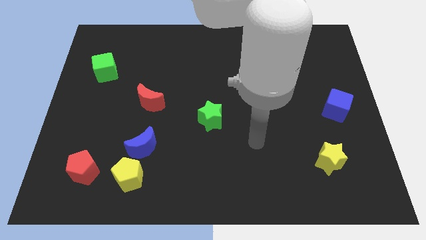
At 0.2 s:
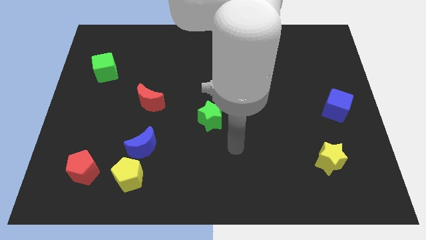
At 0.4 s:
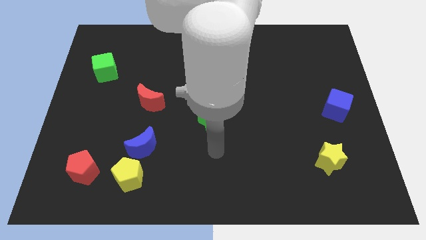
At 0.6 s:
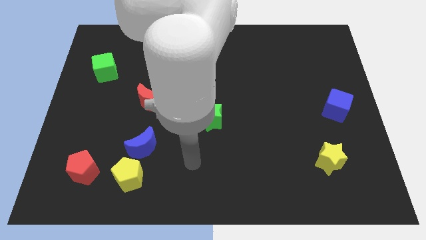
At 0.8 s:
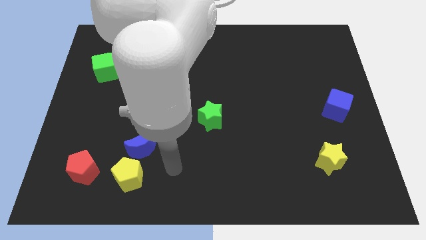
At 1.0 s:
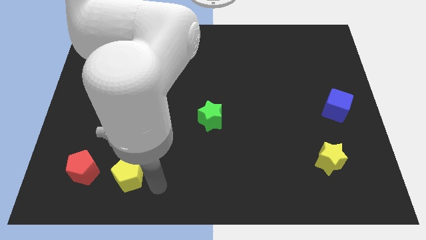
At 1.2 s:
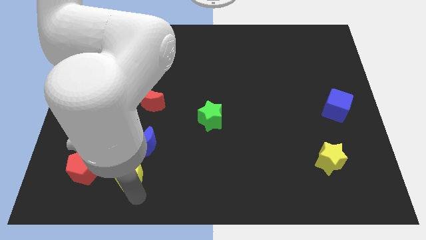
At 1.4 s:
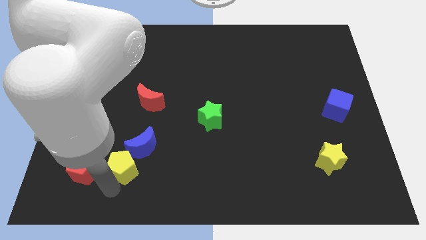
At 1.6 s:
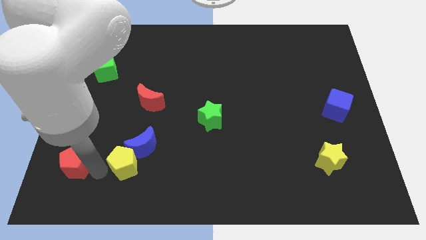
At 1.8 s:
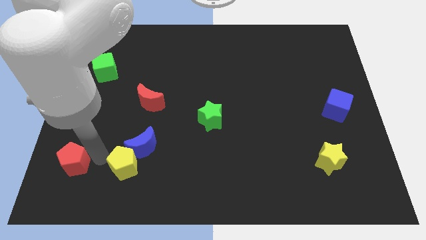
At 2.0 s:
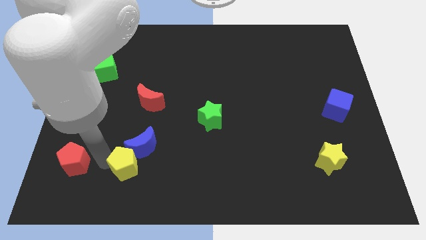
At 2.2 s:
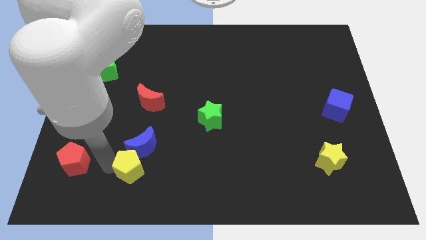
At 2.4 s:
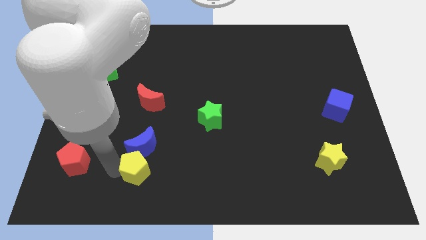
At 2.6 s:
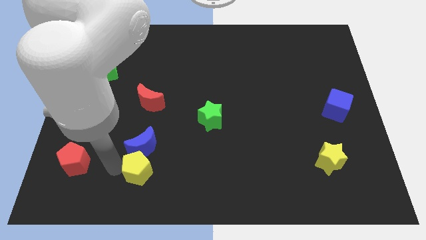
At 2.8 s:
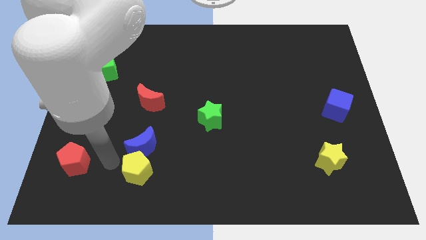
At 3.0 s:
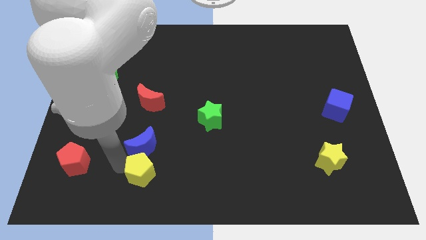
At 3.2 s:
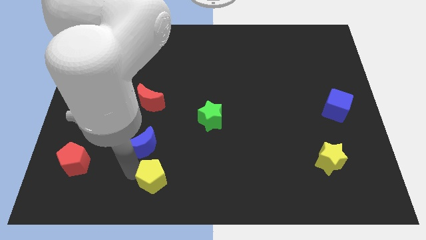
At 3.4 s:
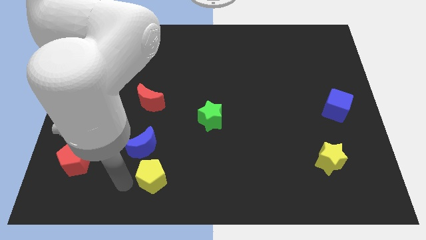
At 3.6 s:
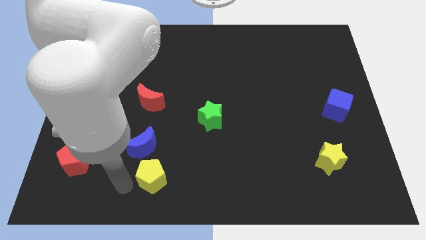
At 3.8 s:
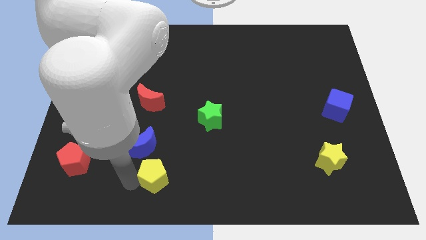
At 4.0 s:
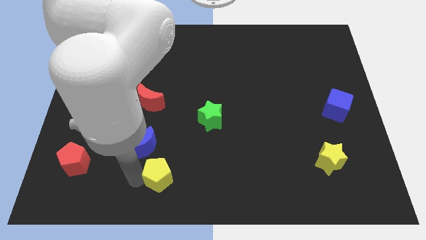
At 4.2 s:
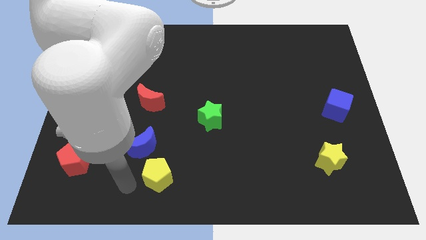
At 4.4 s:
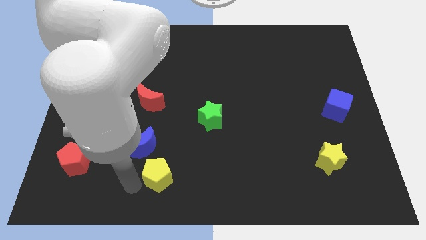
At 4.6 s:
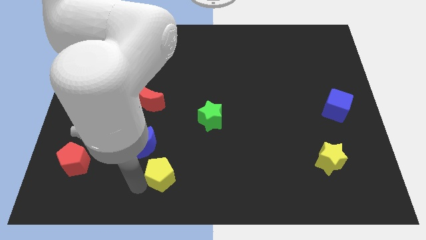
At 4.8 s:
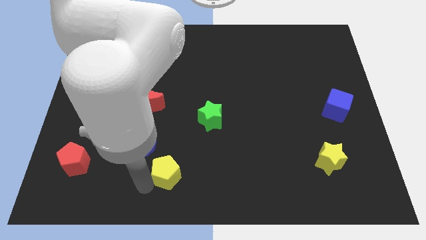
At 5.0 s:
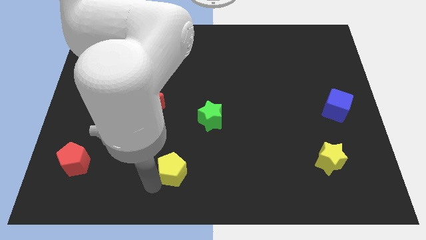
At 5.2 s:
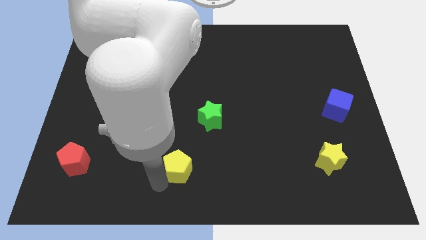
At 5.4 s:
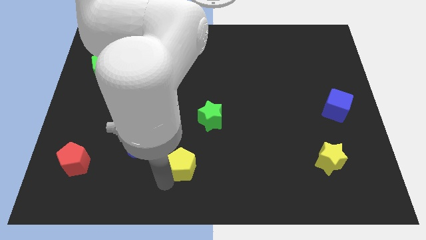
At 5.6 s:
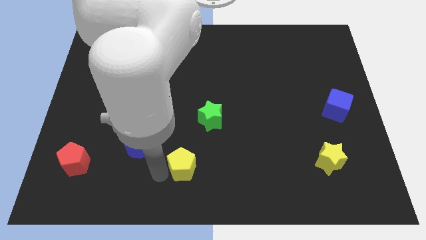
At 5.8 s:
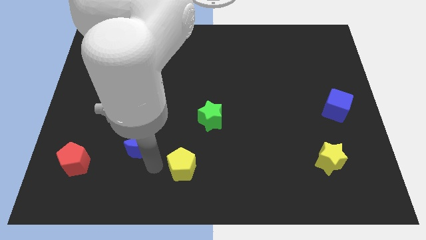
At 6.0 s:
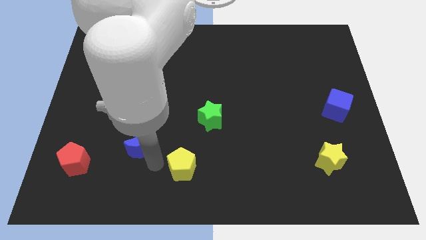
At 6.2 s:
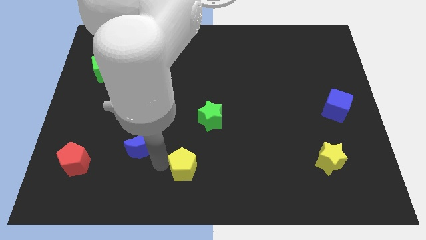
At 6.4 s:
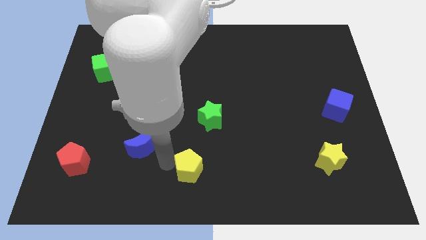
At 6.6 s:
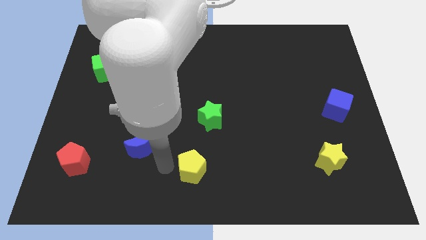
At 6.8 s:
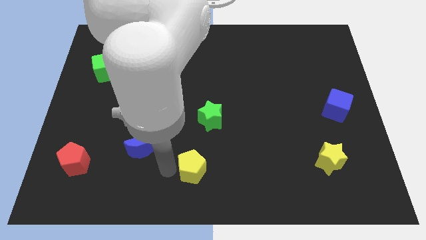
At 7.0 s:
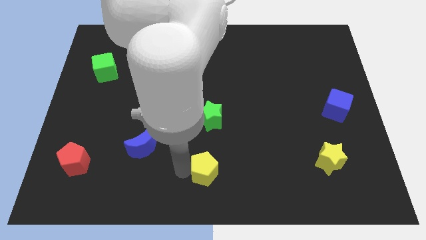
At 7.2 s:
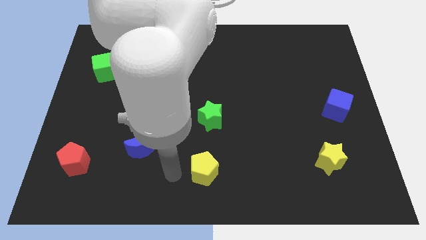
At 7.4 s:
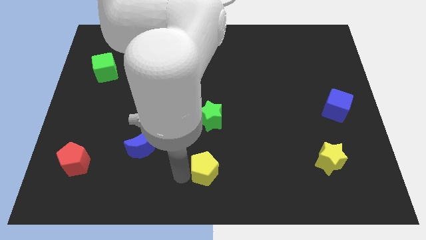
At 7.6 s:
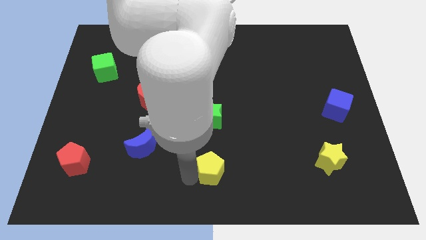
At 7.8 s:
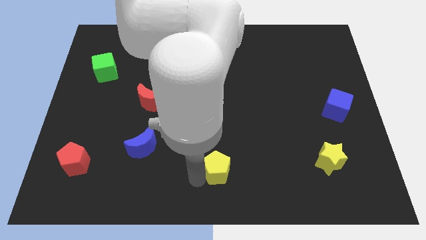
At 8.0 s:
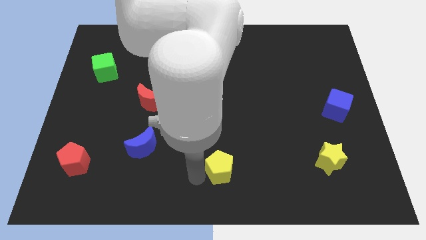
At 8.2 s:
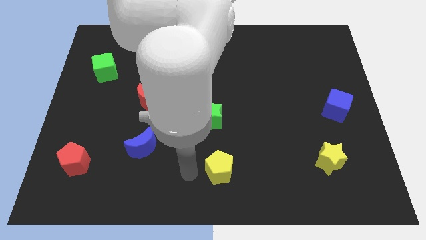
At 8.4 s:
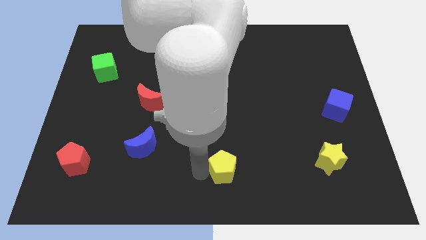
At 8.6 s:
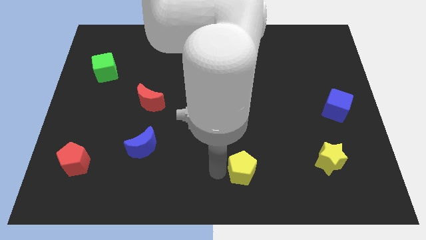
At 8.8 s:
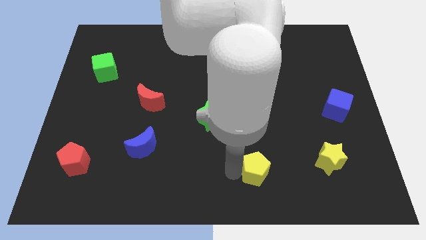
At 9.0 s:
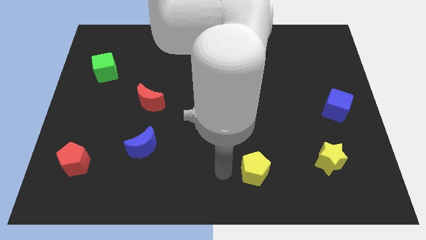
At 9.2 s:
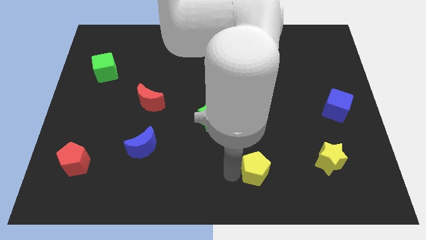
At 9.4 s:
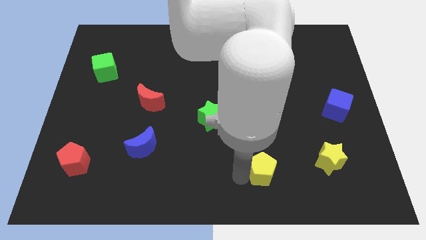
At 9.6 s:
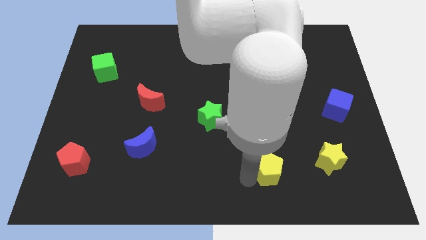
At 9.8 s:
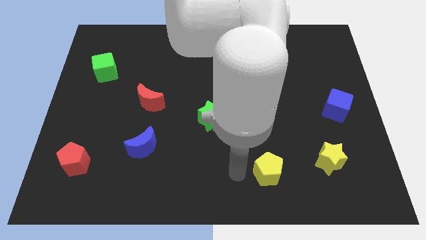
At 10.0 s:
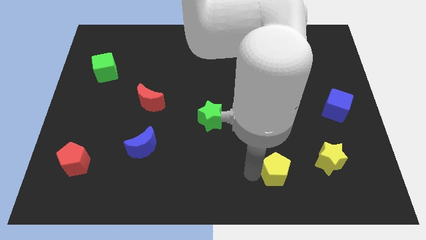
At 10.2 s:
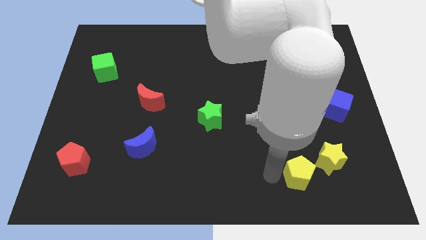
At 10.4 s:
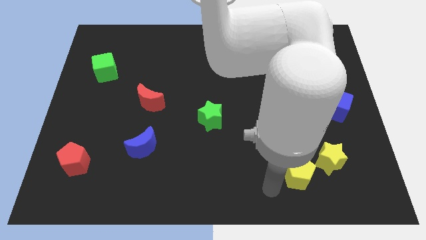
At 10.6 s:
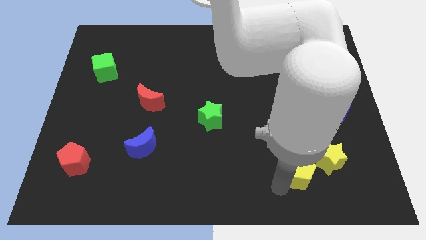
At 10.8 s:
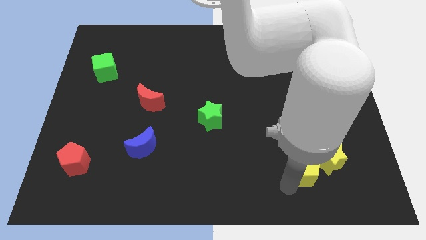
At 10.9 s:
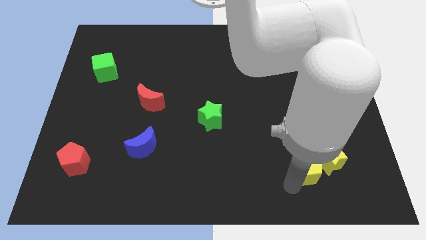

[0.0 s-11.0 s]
slide the yellow pentagon next to the yellow star

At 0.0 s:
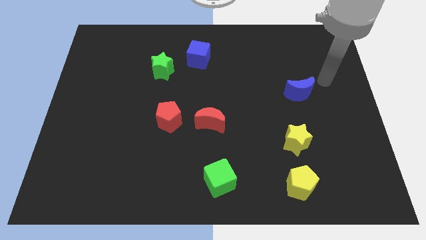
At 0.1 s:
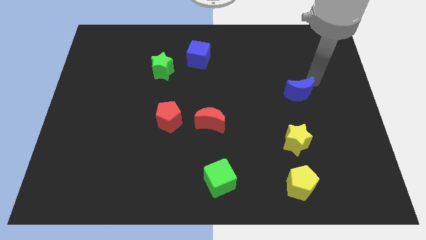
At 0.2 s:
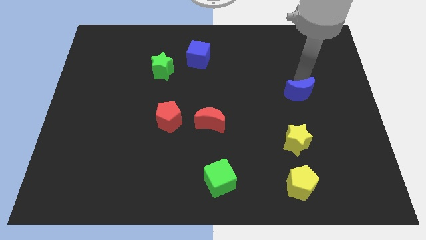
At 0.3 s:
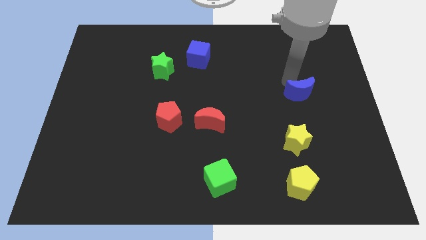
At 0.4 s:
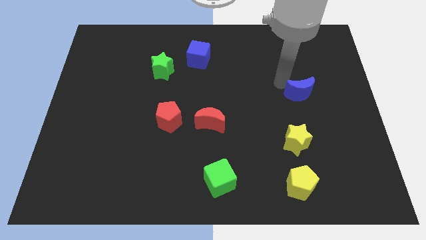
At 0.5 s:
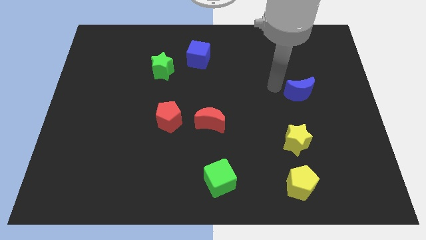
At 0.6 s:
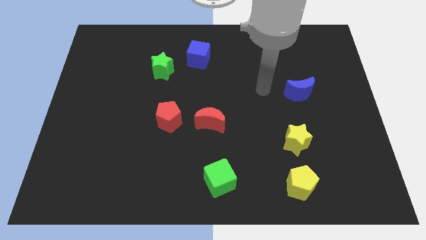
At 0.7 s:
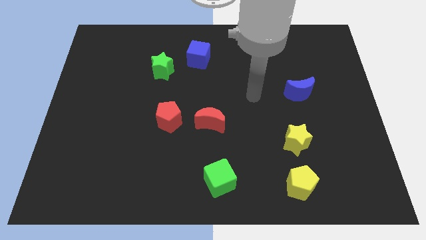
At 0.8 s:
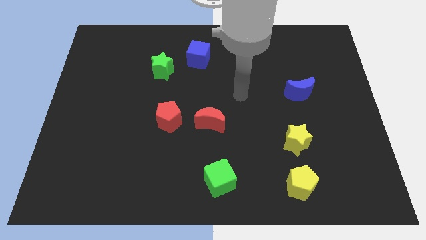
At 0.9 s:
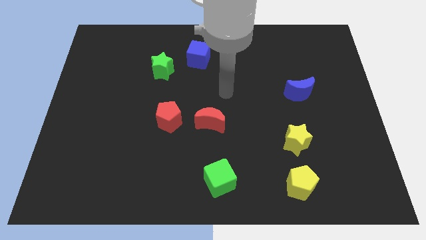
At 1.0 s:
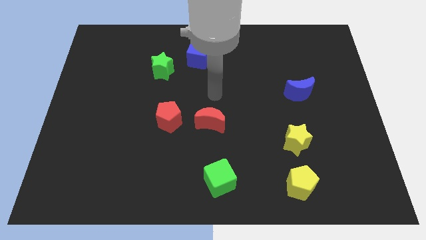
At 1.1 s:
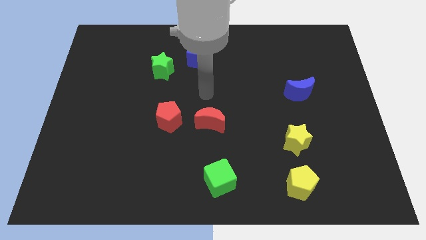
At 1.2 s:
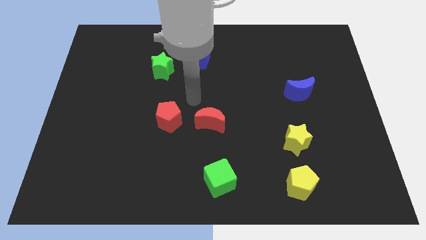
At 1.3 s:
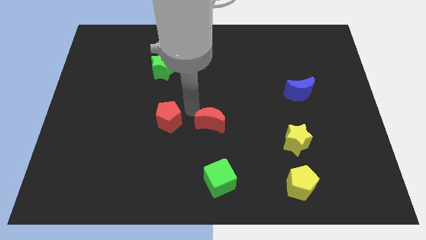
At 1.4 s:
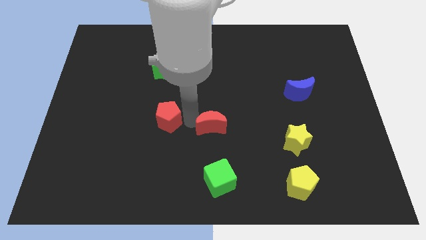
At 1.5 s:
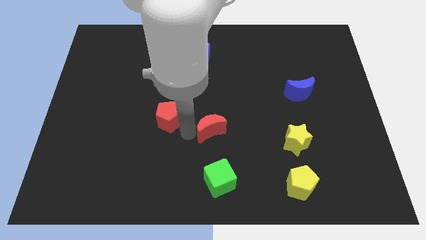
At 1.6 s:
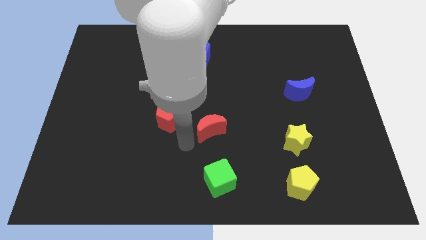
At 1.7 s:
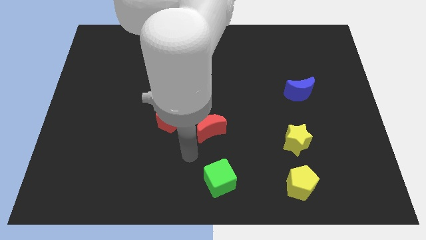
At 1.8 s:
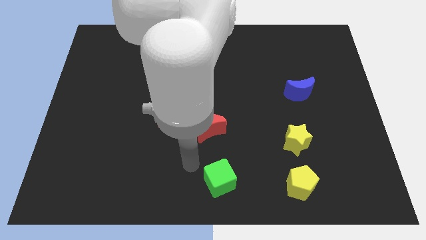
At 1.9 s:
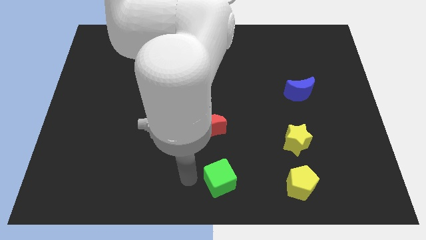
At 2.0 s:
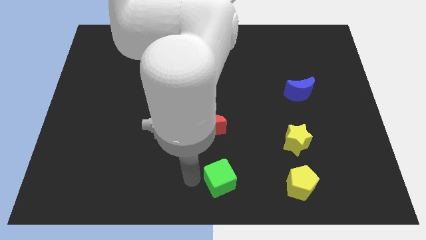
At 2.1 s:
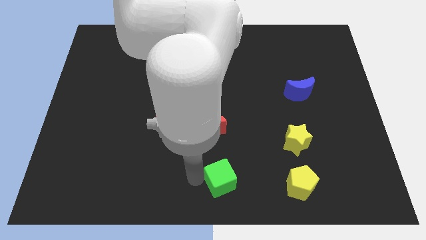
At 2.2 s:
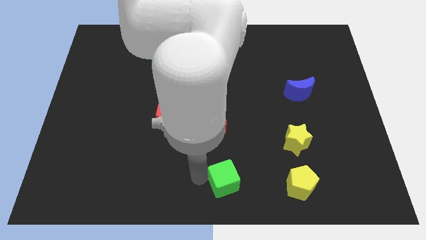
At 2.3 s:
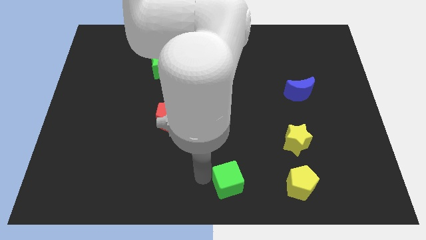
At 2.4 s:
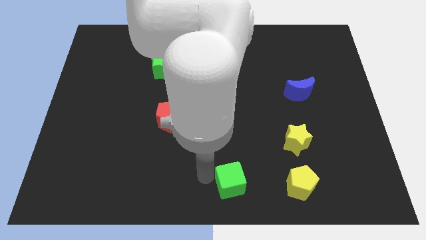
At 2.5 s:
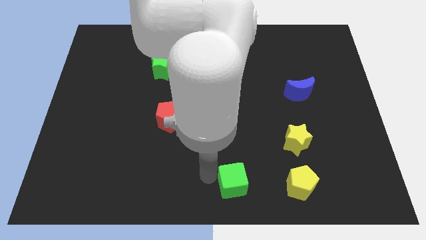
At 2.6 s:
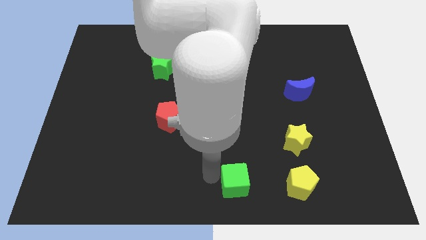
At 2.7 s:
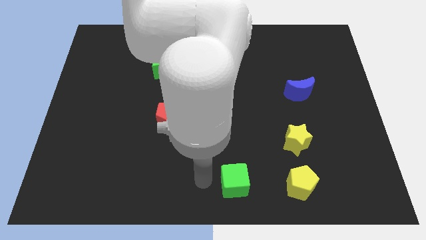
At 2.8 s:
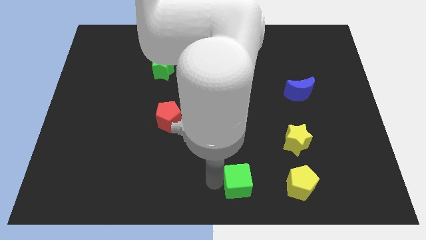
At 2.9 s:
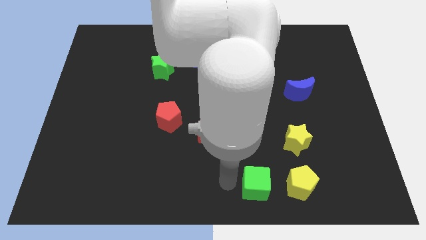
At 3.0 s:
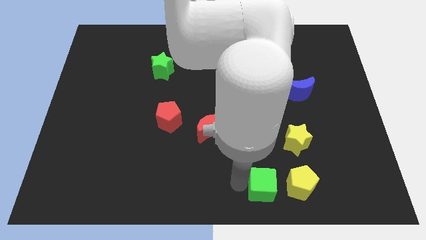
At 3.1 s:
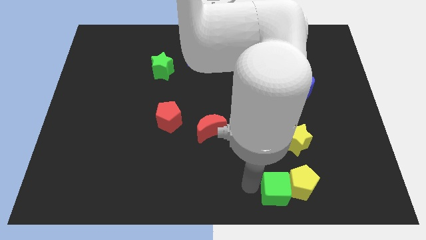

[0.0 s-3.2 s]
move the green cube to the yellow pentagon
